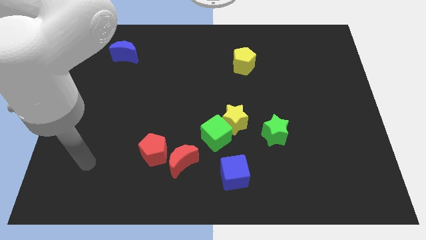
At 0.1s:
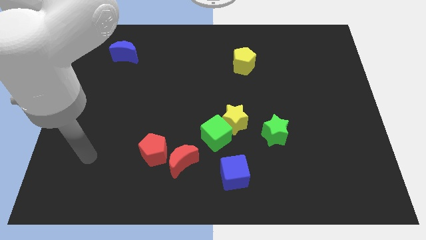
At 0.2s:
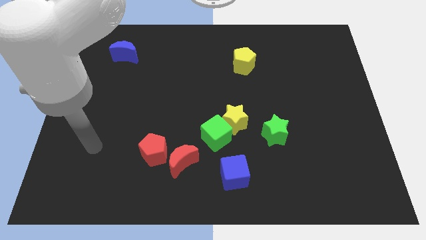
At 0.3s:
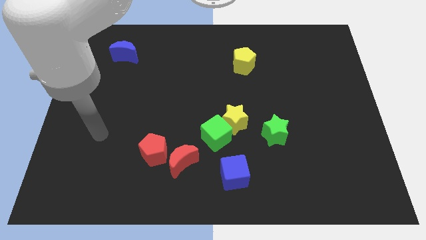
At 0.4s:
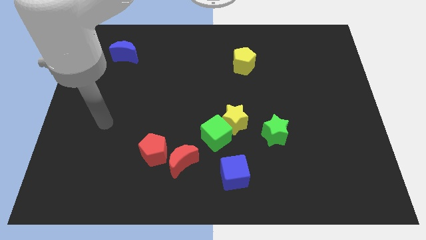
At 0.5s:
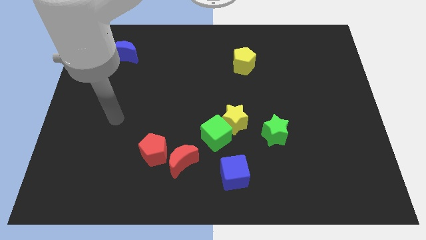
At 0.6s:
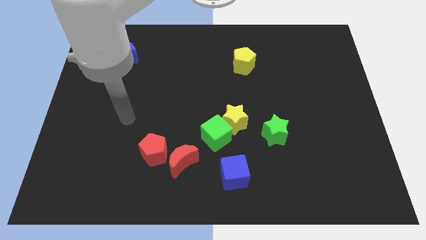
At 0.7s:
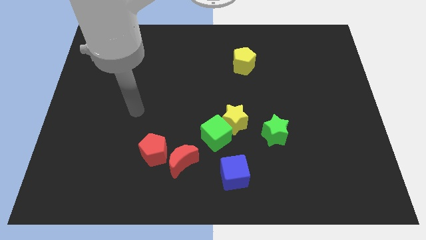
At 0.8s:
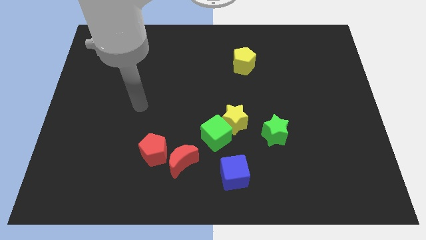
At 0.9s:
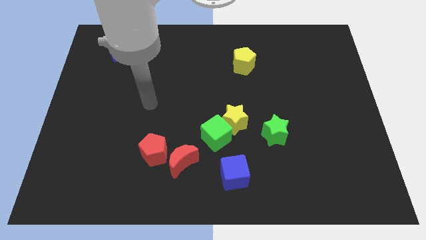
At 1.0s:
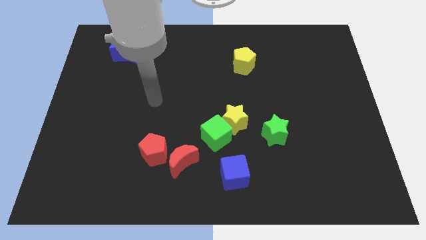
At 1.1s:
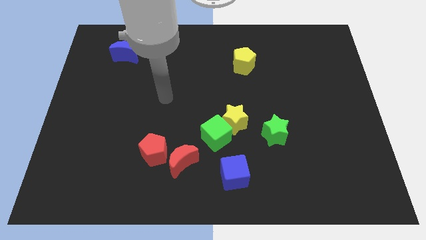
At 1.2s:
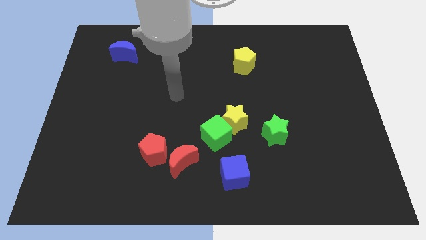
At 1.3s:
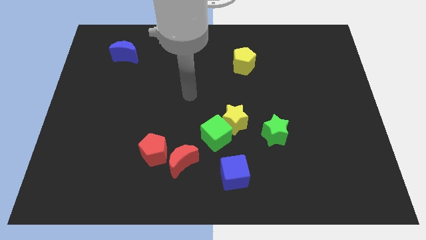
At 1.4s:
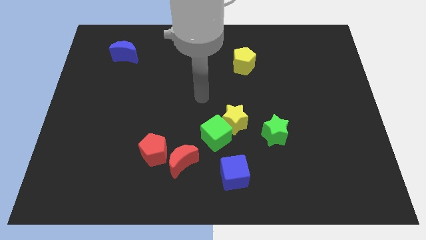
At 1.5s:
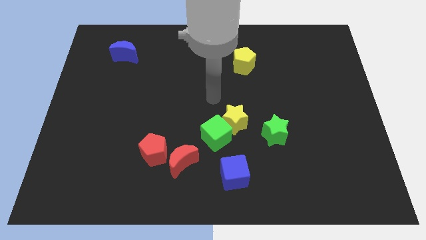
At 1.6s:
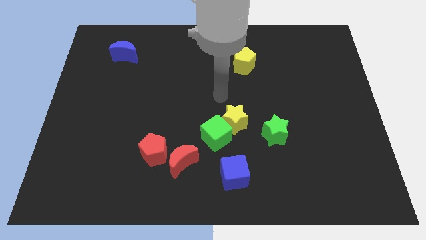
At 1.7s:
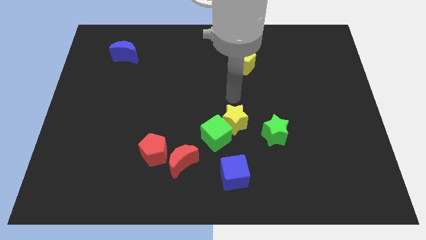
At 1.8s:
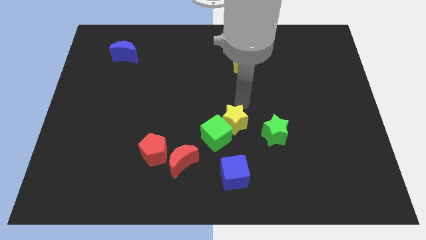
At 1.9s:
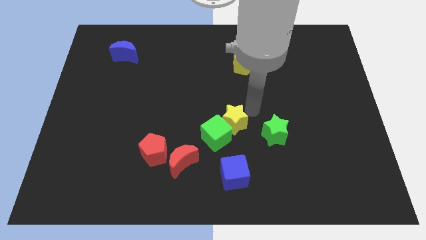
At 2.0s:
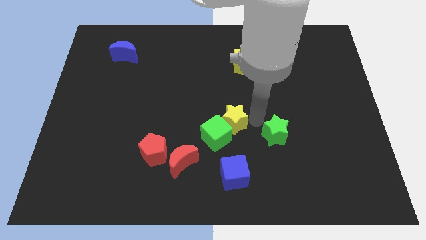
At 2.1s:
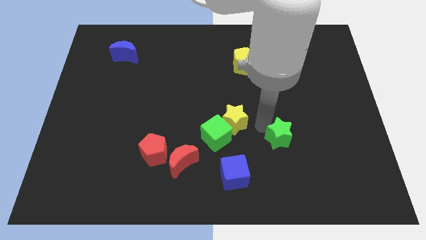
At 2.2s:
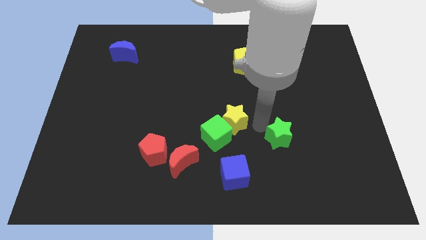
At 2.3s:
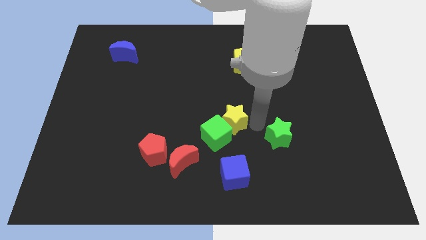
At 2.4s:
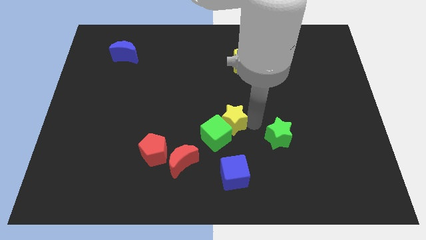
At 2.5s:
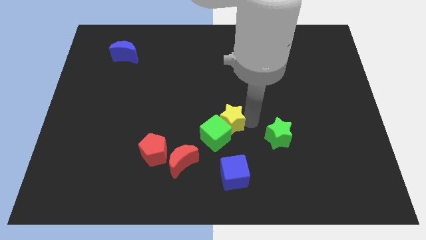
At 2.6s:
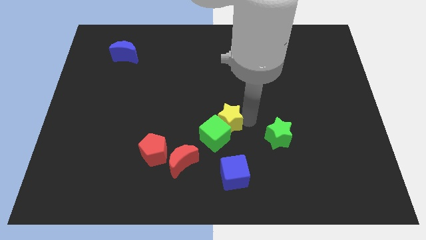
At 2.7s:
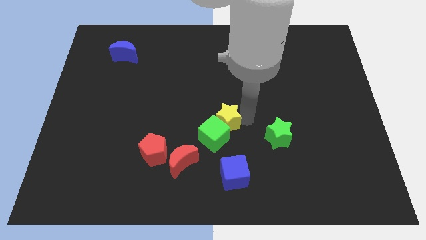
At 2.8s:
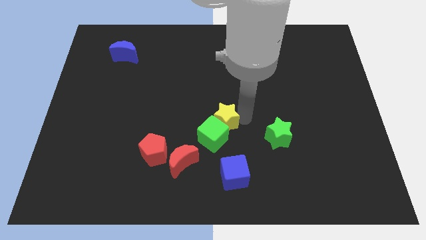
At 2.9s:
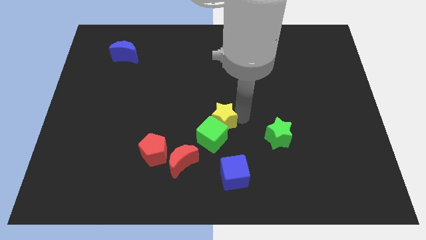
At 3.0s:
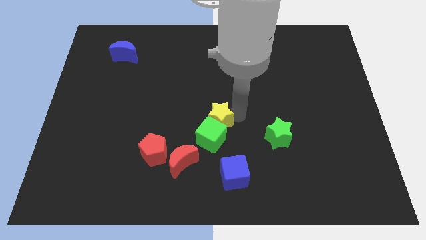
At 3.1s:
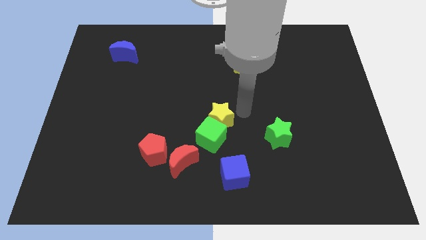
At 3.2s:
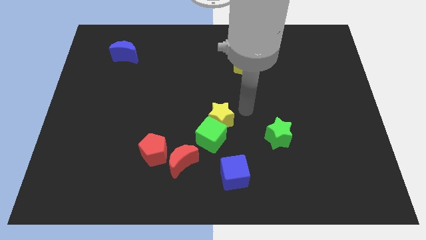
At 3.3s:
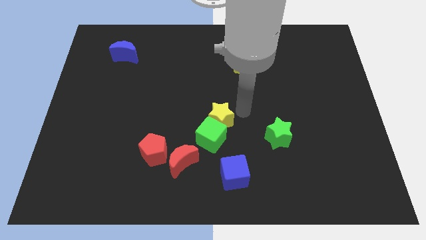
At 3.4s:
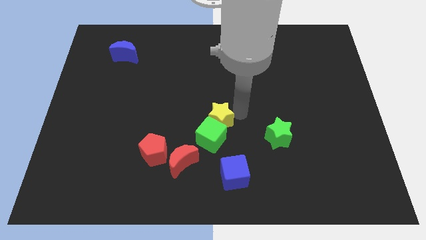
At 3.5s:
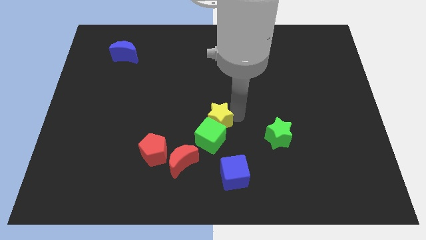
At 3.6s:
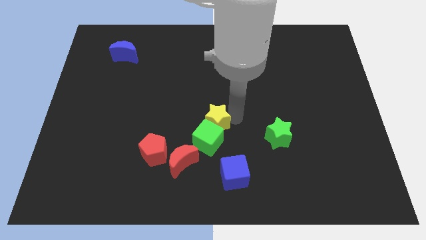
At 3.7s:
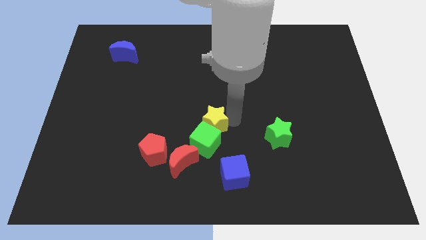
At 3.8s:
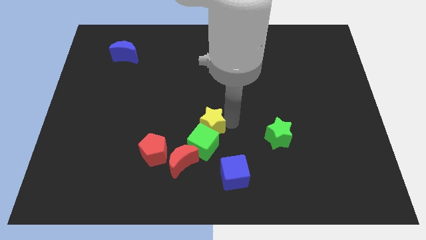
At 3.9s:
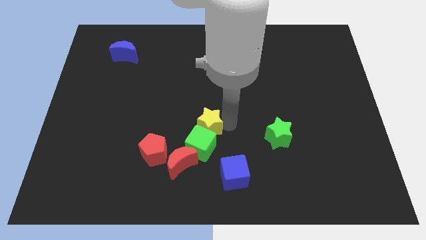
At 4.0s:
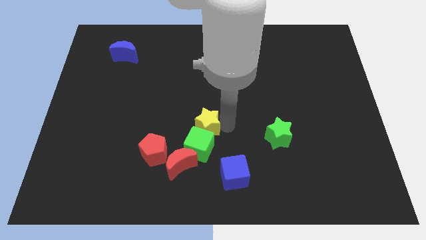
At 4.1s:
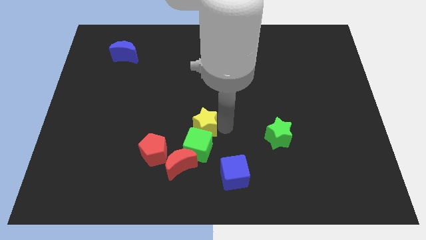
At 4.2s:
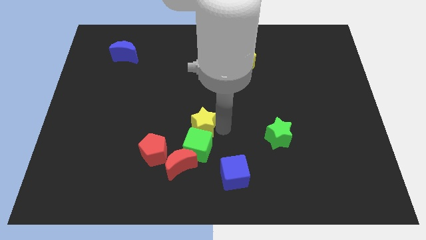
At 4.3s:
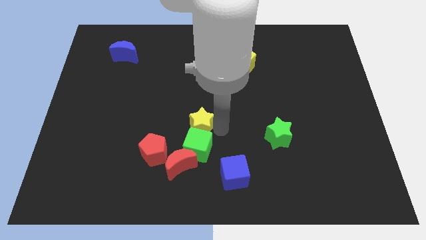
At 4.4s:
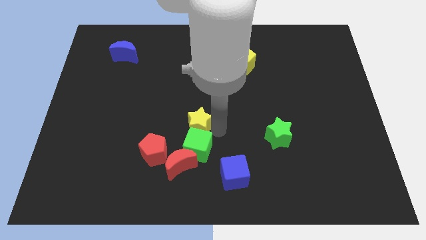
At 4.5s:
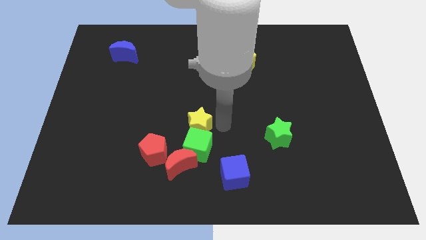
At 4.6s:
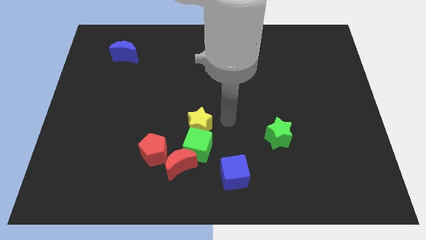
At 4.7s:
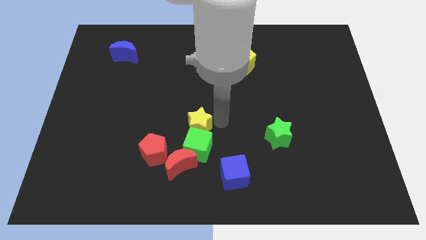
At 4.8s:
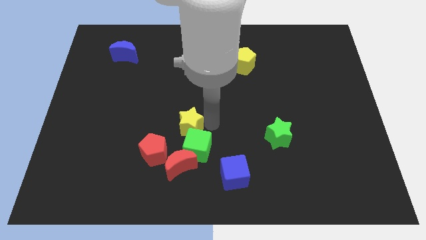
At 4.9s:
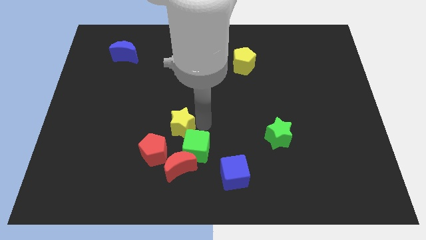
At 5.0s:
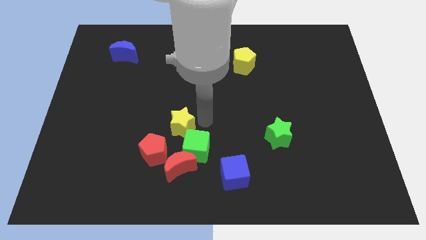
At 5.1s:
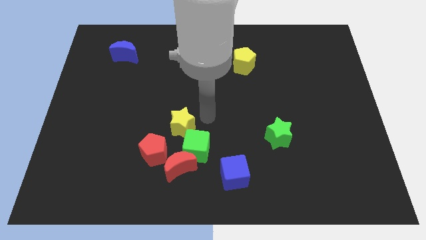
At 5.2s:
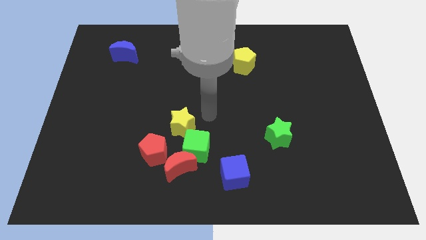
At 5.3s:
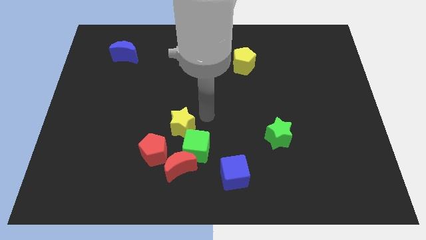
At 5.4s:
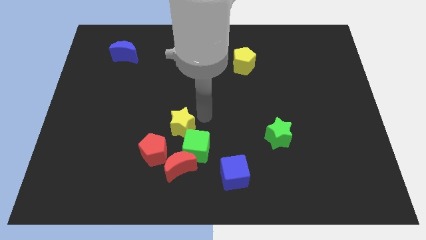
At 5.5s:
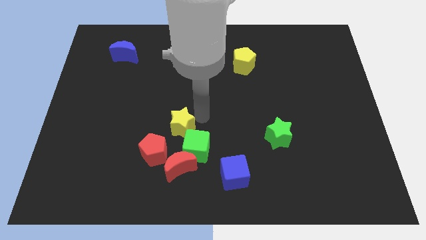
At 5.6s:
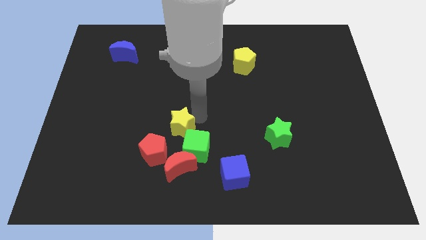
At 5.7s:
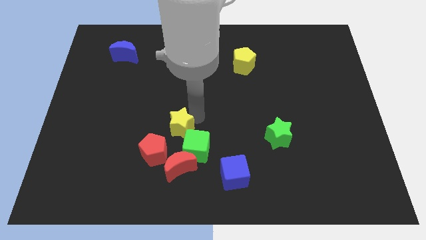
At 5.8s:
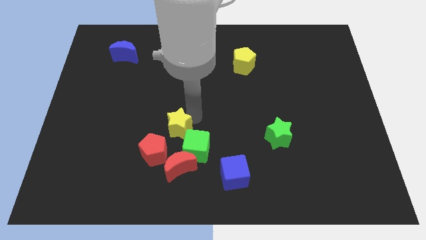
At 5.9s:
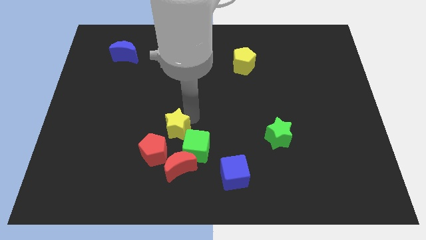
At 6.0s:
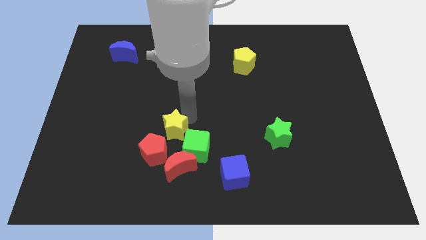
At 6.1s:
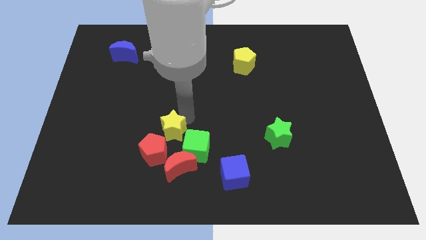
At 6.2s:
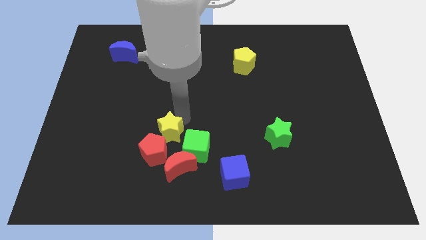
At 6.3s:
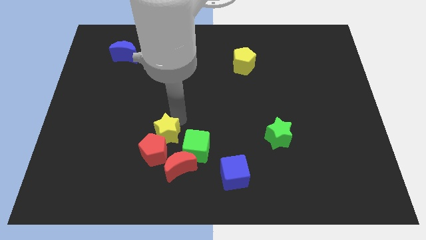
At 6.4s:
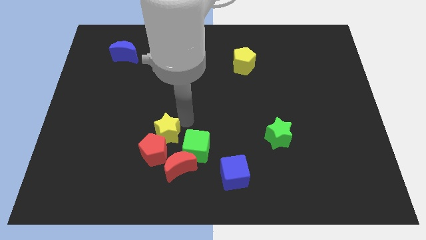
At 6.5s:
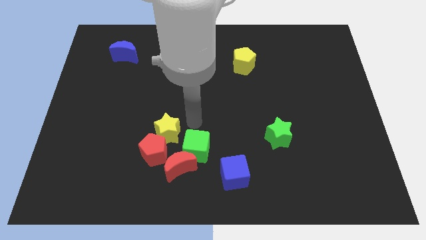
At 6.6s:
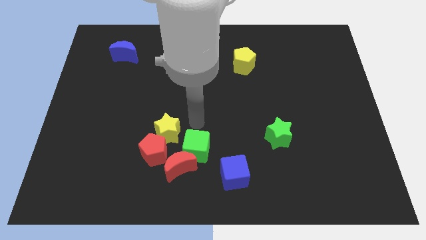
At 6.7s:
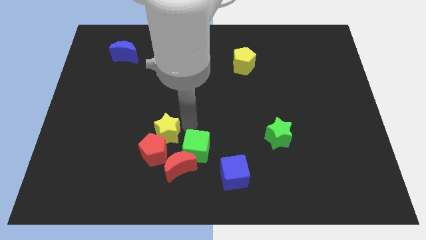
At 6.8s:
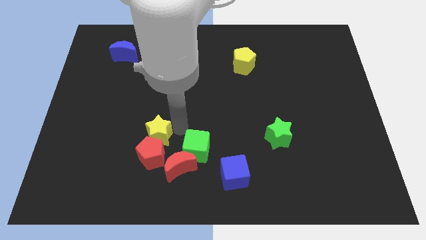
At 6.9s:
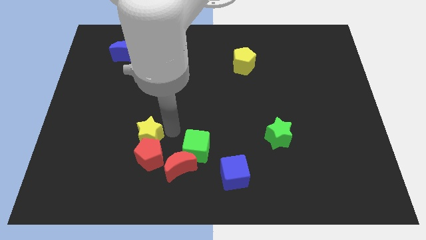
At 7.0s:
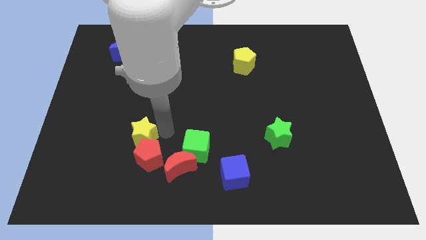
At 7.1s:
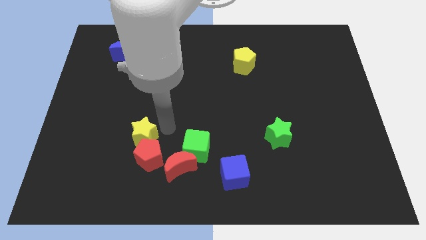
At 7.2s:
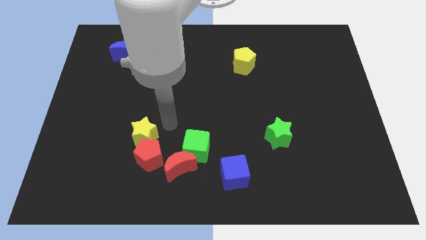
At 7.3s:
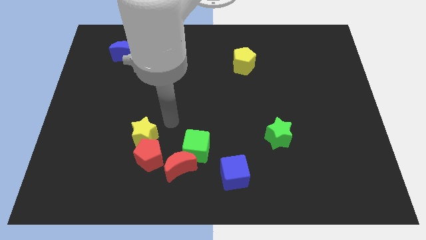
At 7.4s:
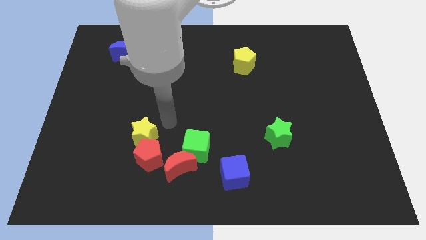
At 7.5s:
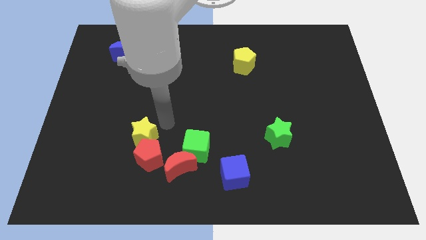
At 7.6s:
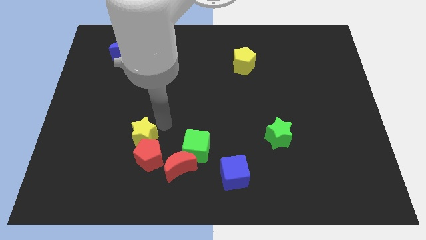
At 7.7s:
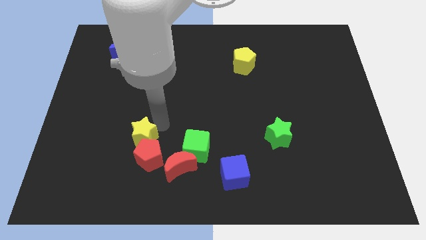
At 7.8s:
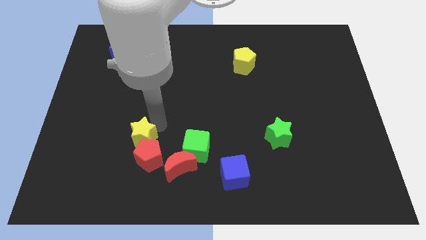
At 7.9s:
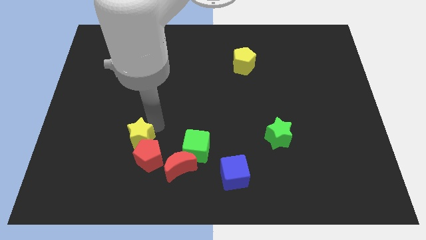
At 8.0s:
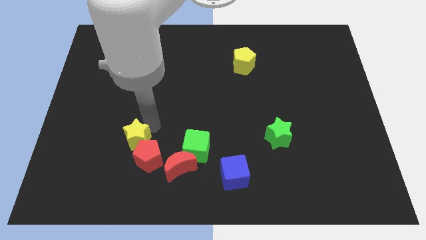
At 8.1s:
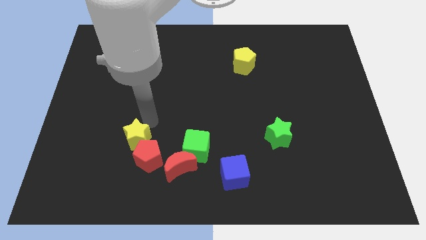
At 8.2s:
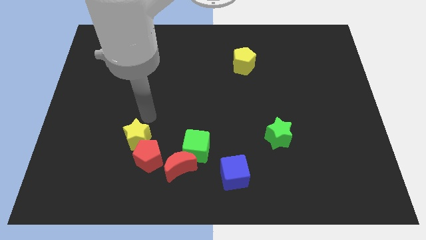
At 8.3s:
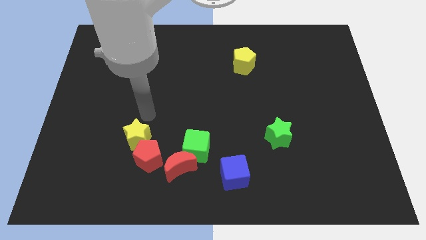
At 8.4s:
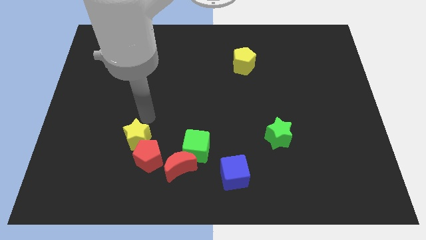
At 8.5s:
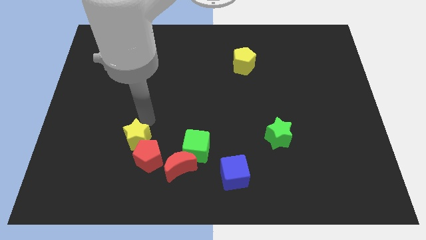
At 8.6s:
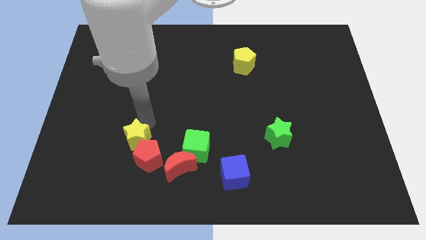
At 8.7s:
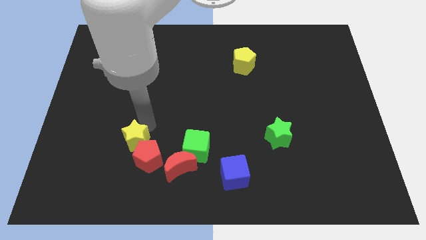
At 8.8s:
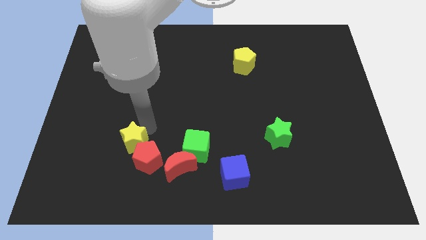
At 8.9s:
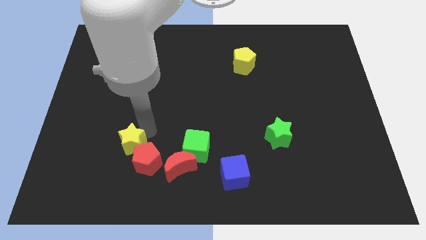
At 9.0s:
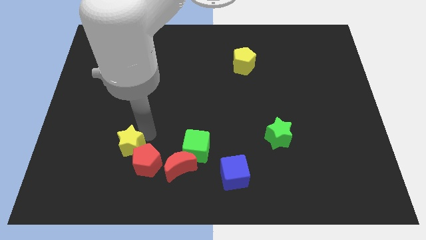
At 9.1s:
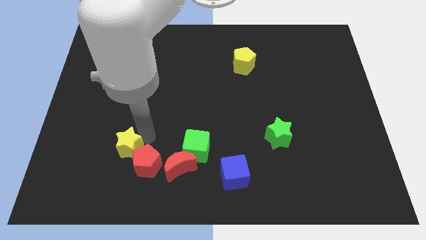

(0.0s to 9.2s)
push the yellow star just left of the red moon
